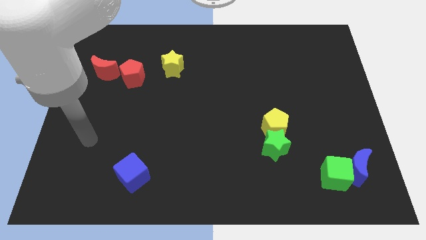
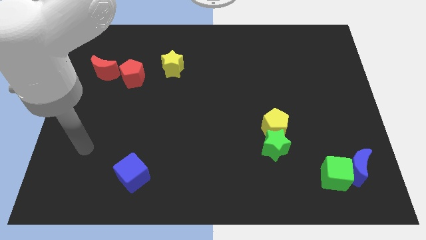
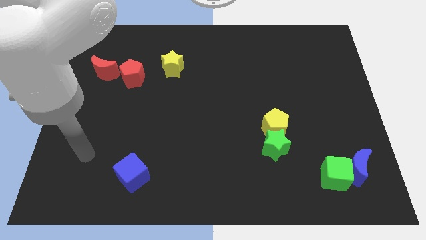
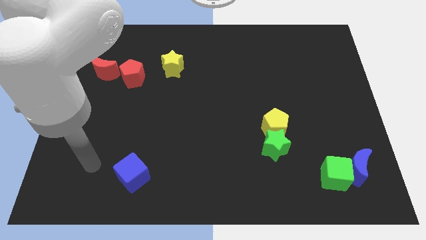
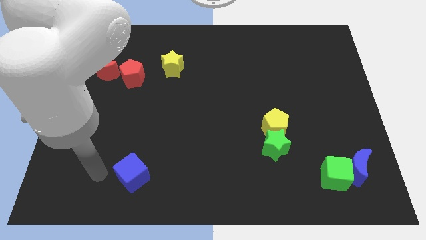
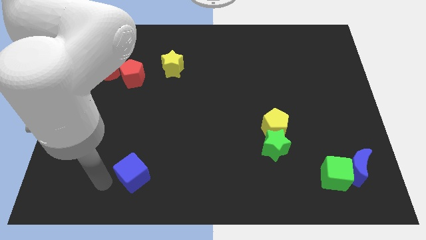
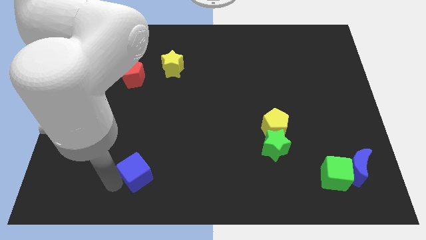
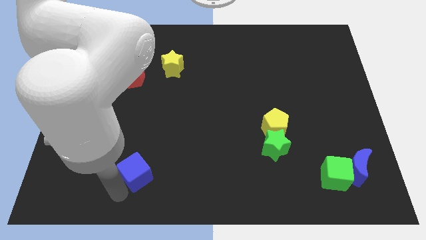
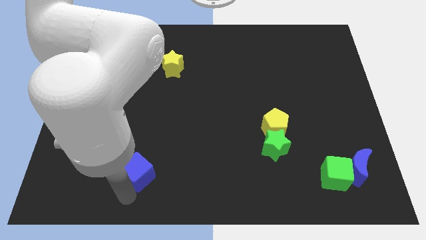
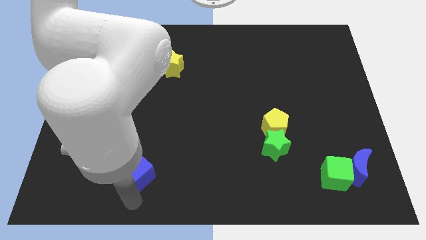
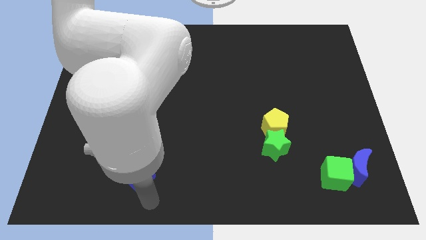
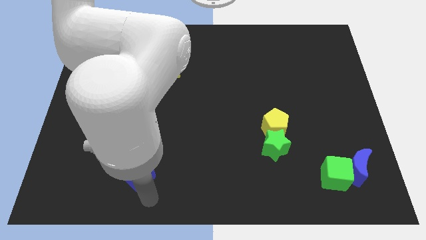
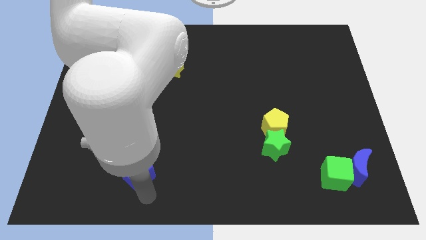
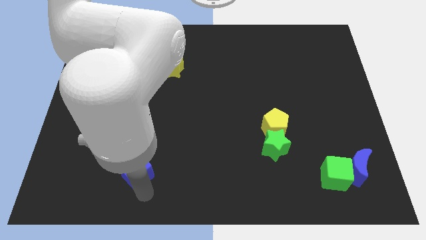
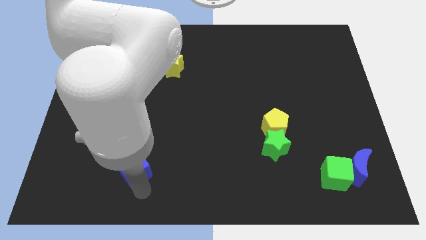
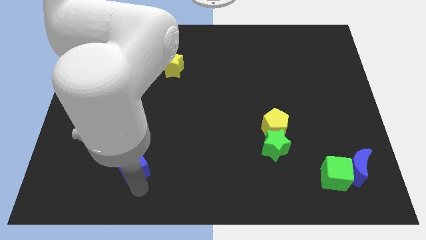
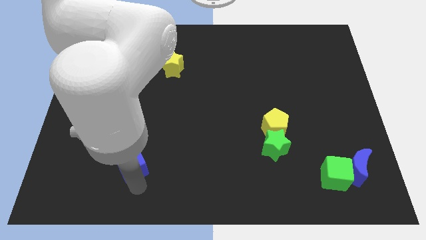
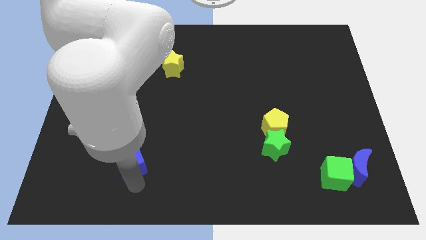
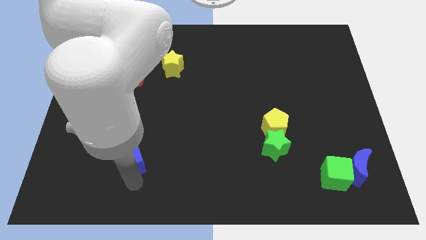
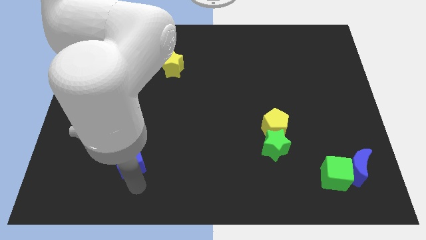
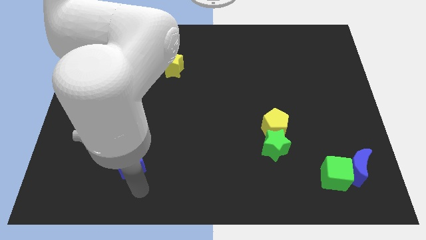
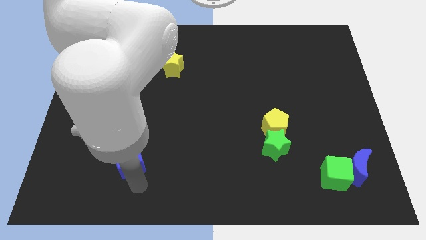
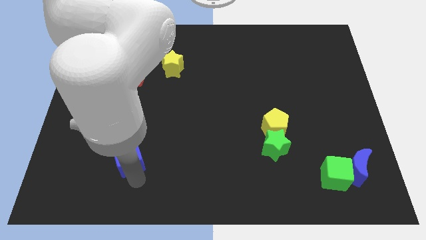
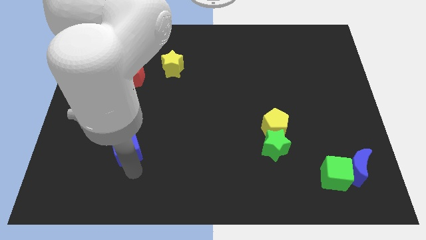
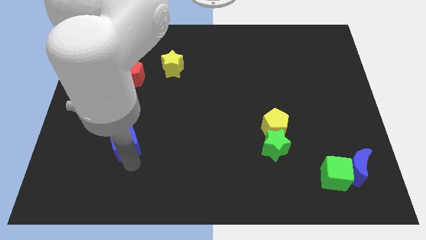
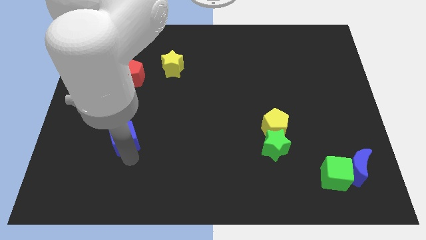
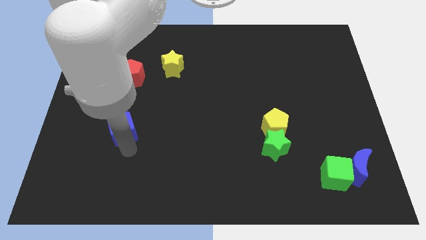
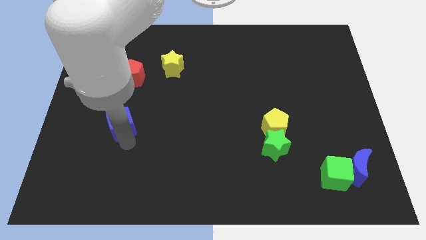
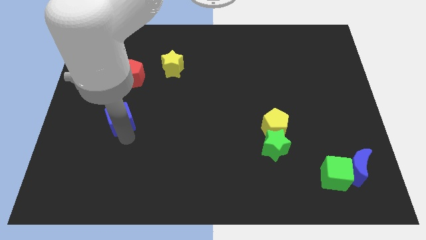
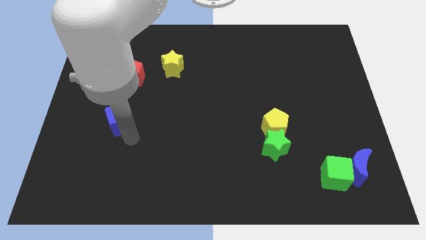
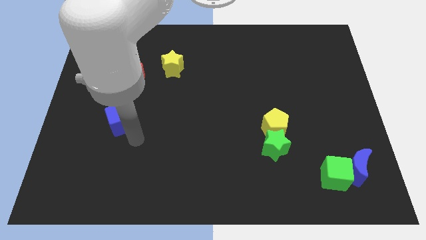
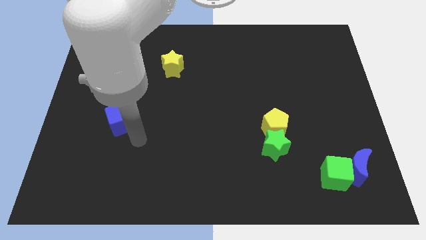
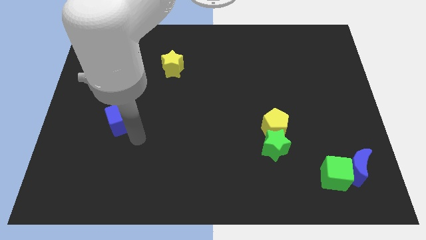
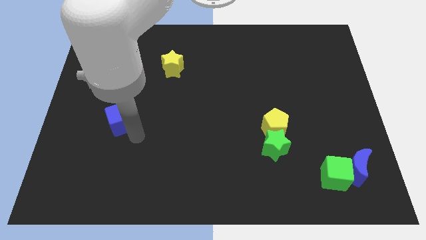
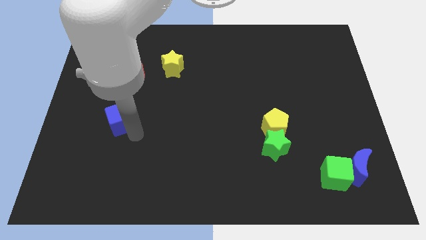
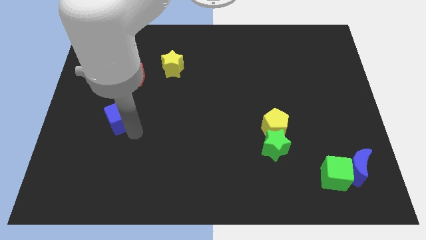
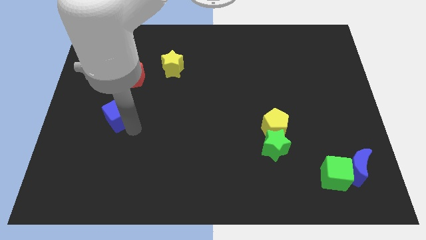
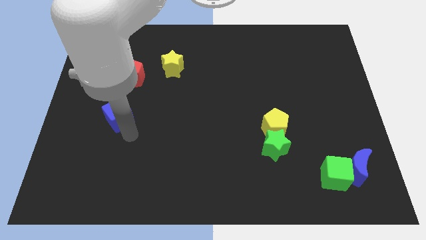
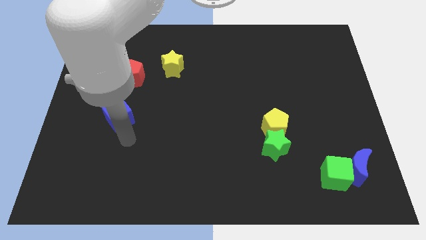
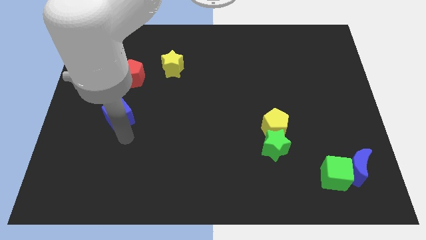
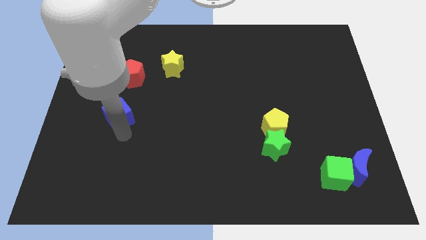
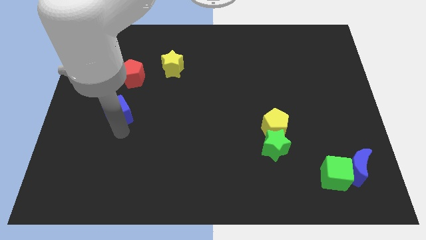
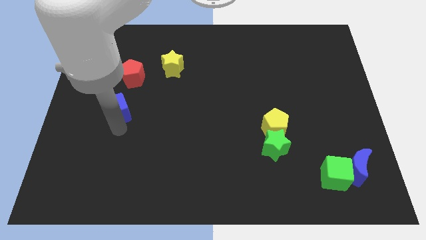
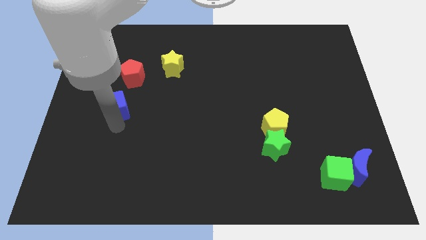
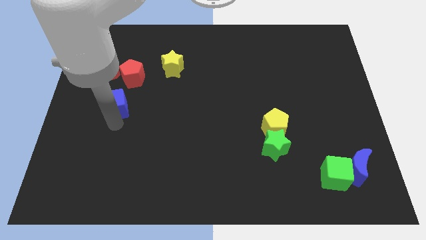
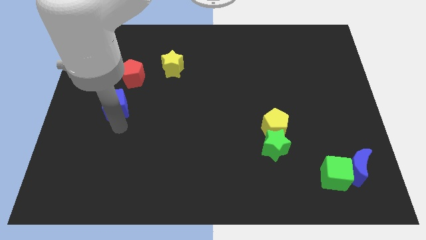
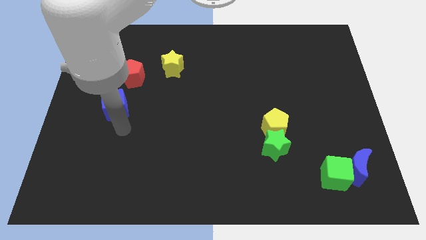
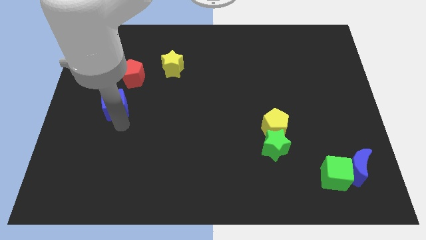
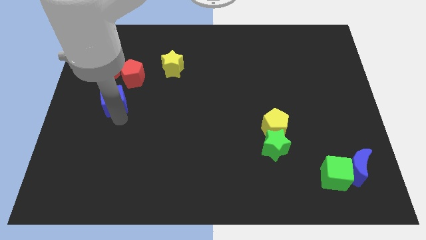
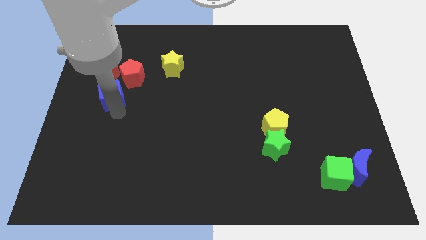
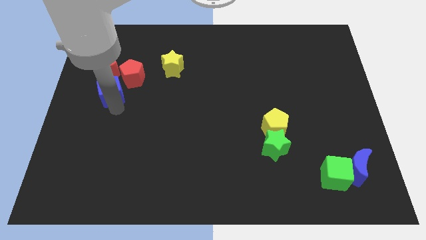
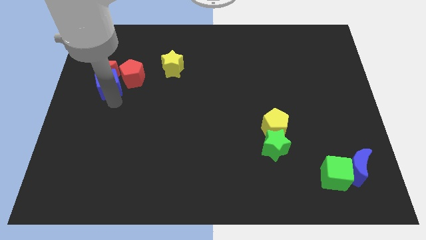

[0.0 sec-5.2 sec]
move the blue cube close to the red moon

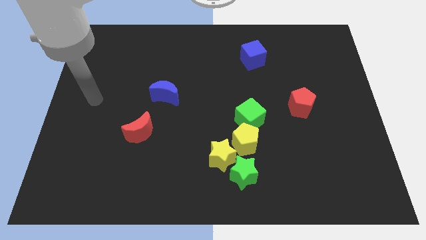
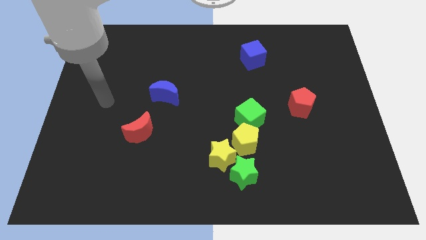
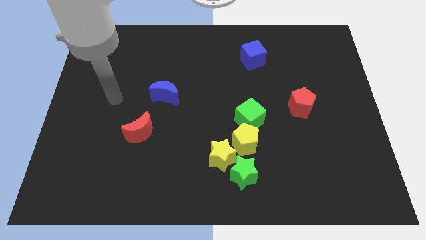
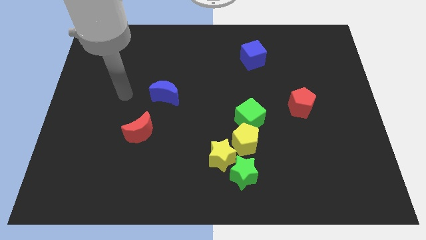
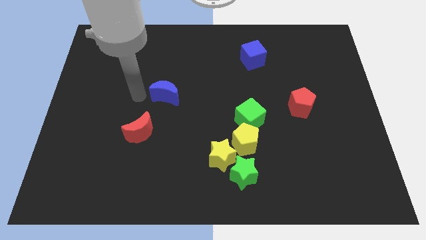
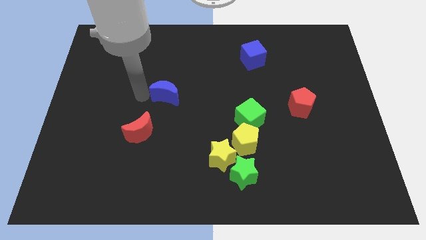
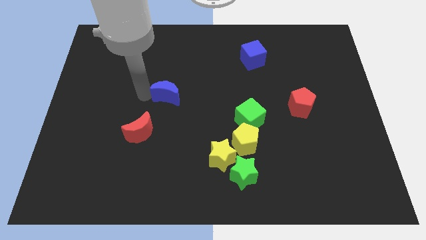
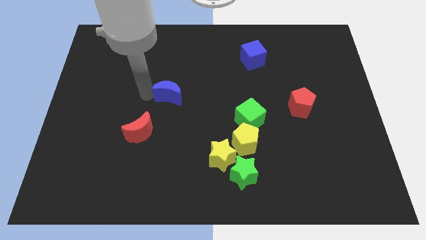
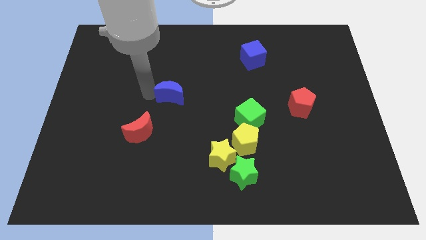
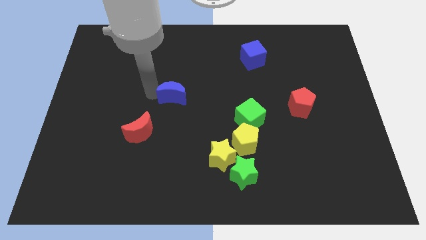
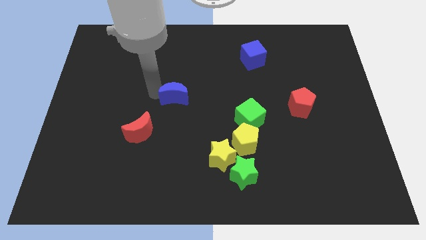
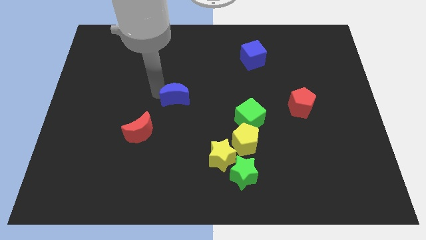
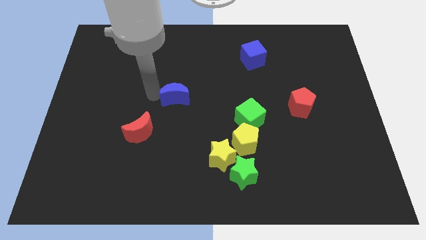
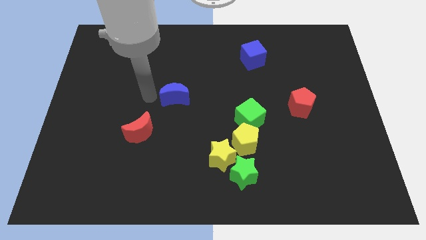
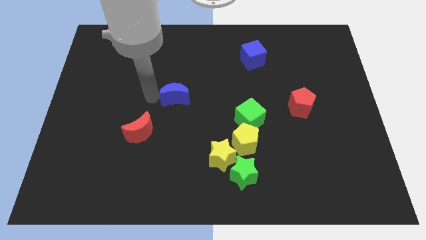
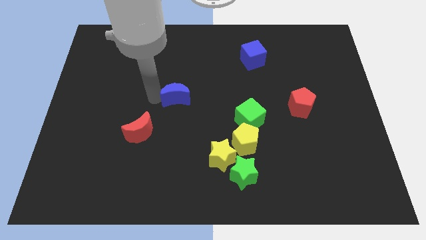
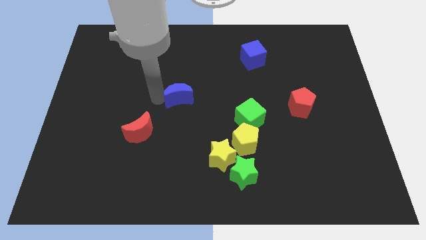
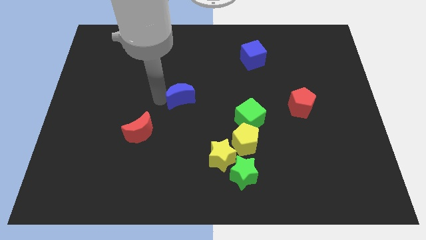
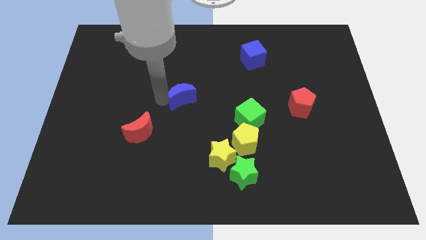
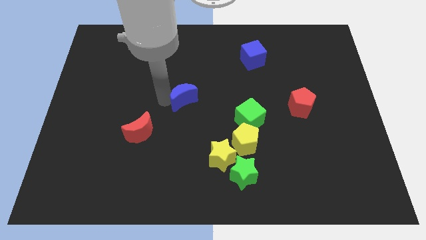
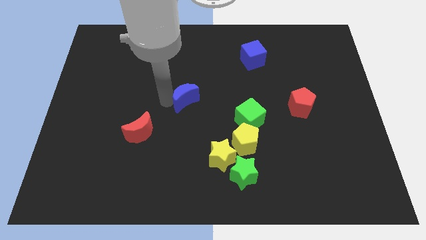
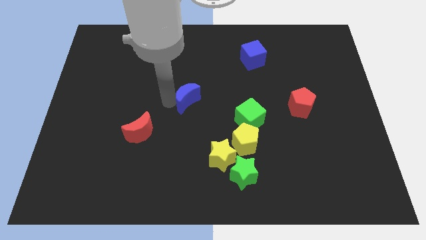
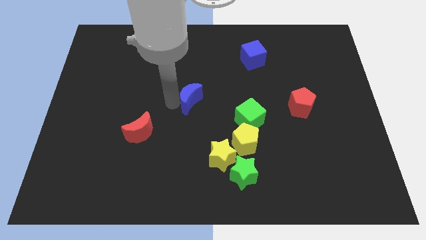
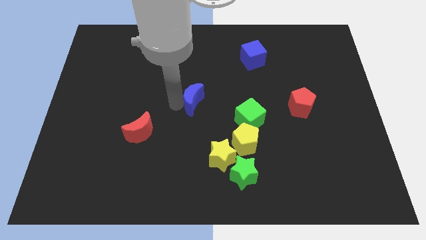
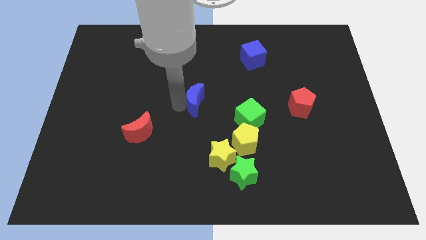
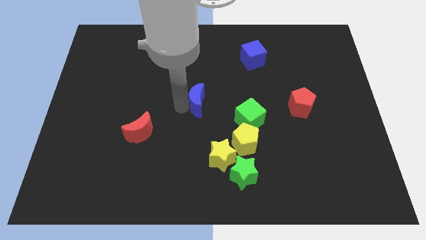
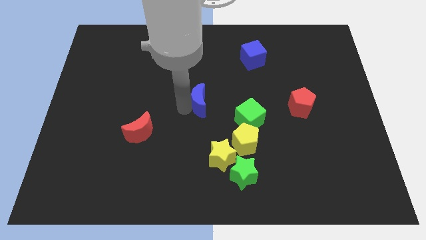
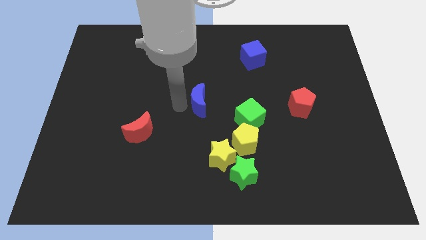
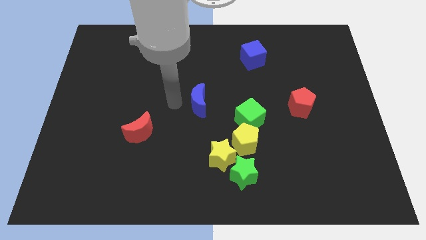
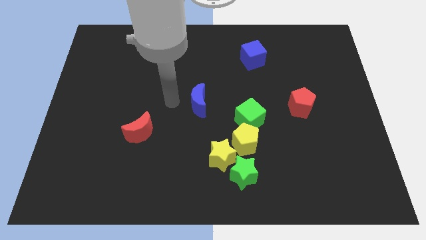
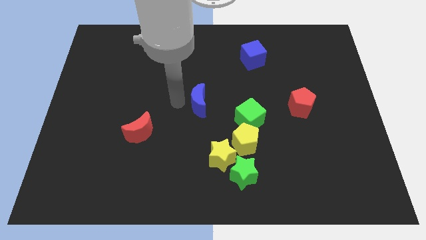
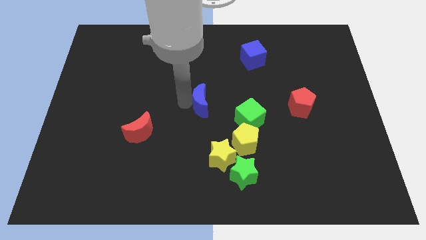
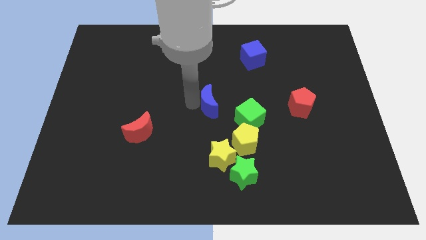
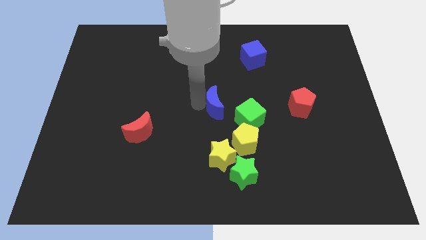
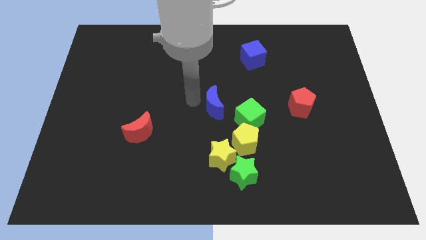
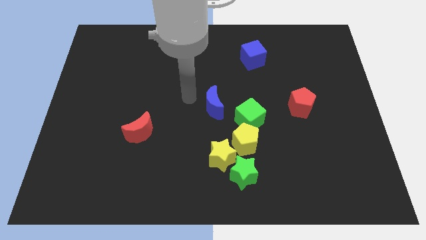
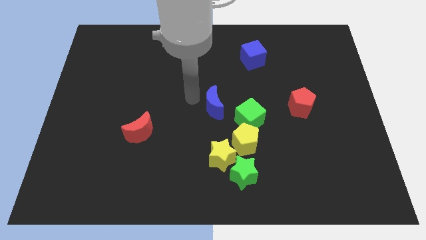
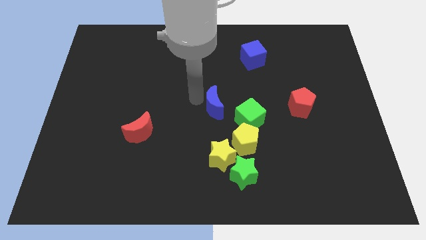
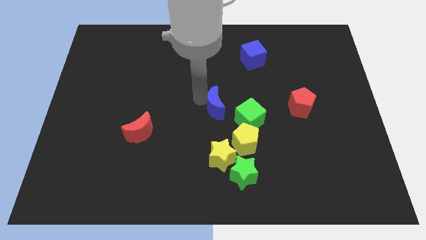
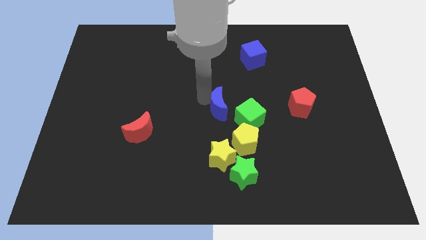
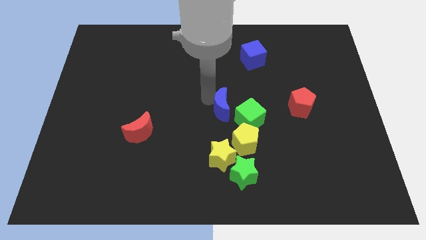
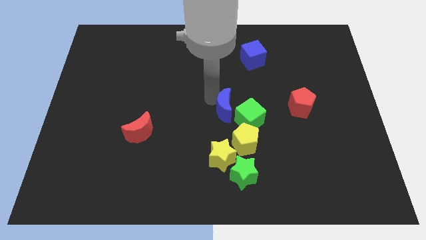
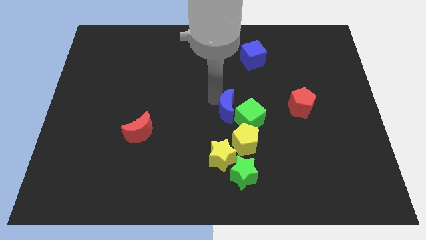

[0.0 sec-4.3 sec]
put the blue moon close to the green cube
